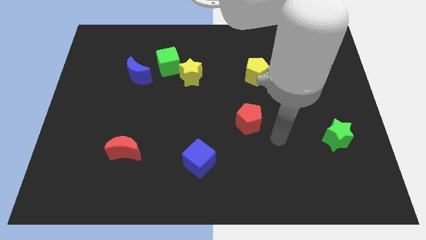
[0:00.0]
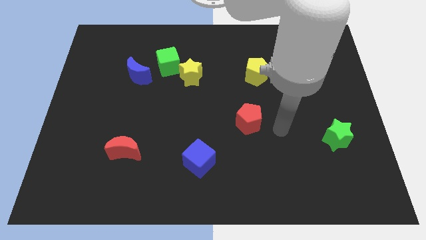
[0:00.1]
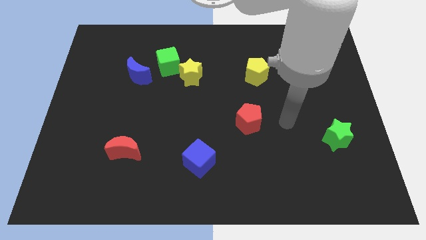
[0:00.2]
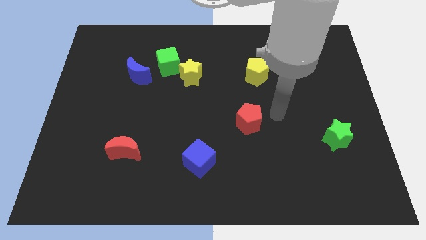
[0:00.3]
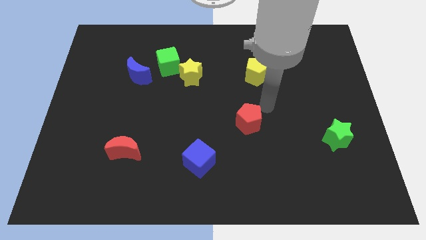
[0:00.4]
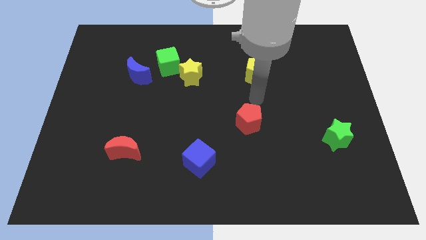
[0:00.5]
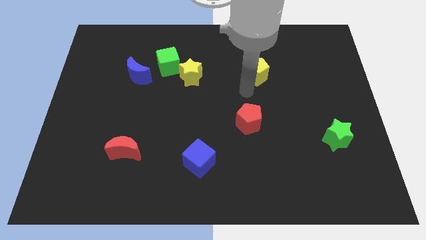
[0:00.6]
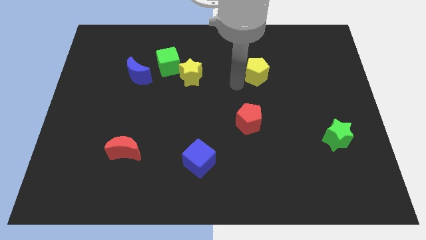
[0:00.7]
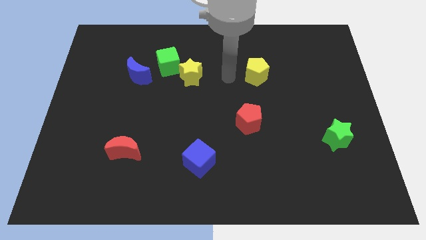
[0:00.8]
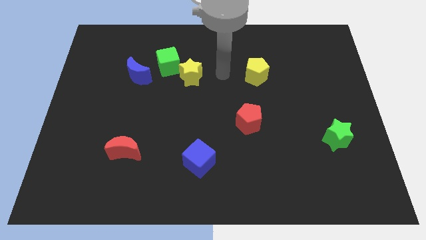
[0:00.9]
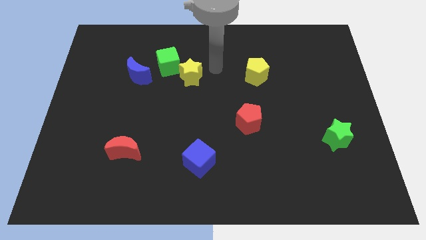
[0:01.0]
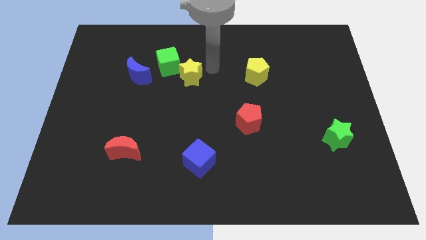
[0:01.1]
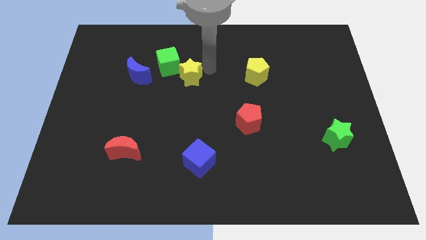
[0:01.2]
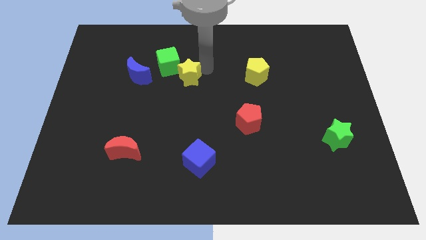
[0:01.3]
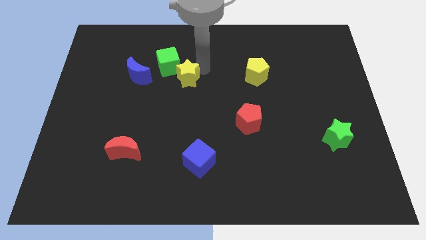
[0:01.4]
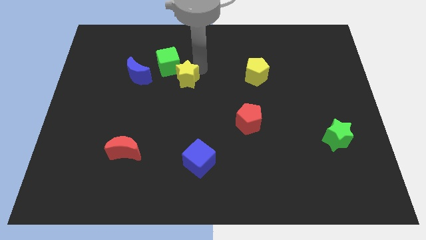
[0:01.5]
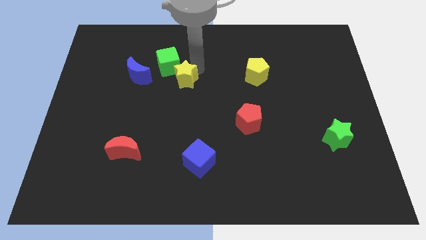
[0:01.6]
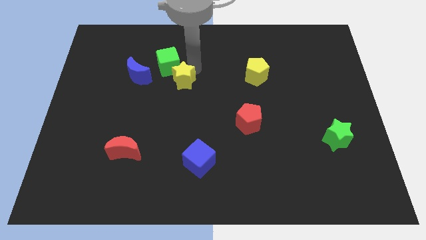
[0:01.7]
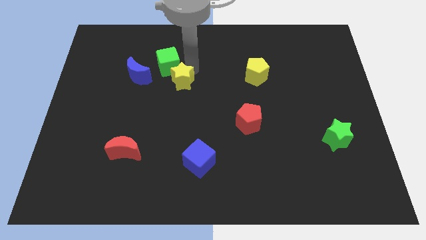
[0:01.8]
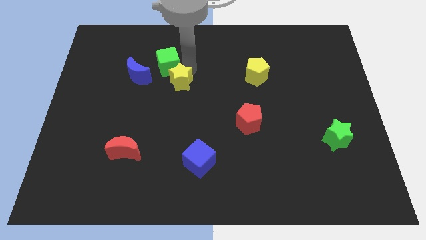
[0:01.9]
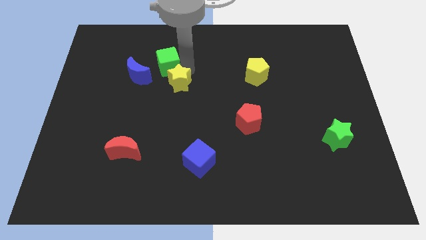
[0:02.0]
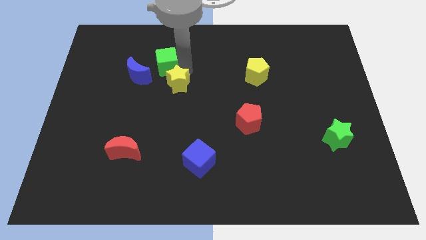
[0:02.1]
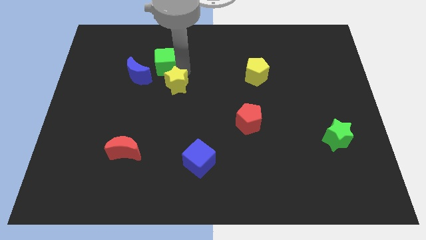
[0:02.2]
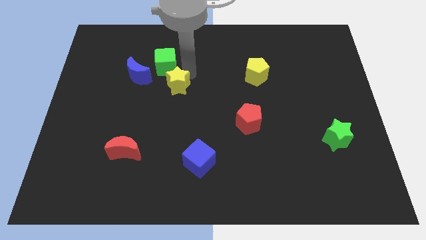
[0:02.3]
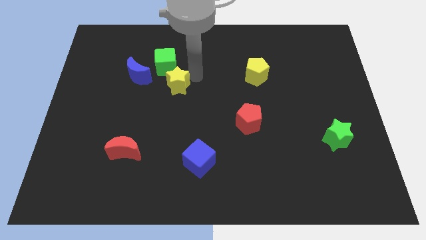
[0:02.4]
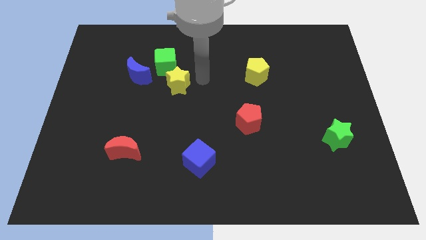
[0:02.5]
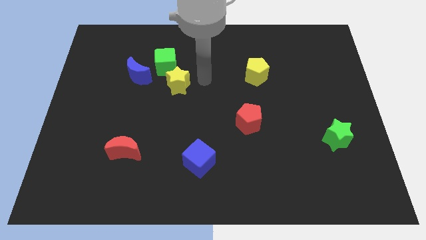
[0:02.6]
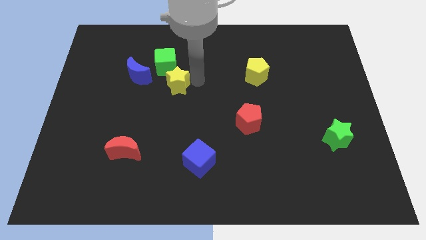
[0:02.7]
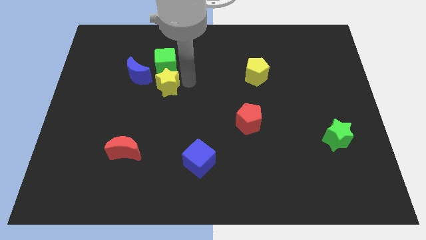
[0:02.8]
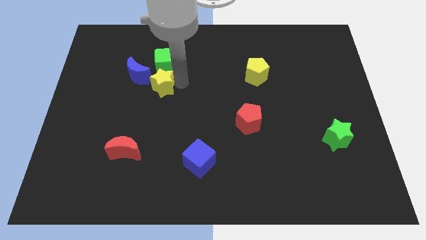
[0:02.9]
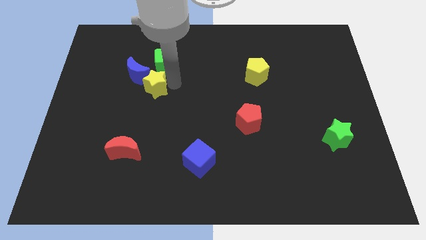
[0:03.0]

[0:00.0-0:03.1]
push the yellow star left somewhat

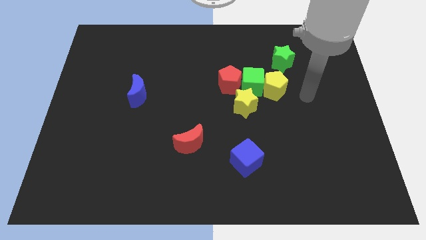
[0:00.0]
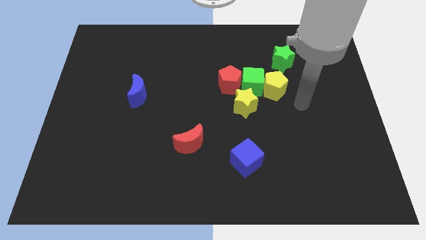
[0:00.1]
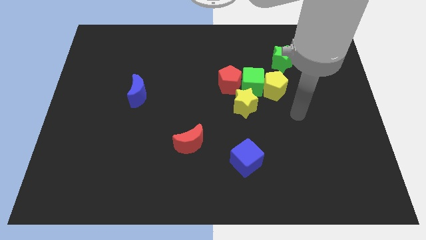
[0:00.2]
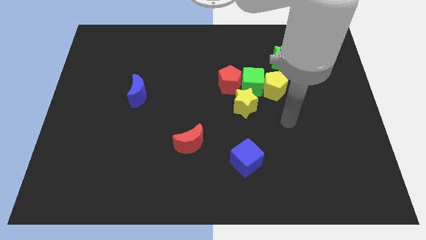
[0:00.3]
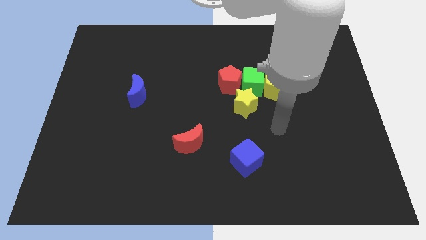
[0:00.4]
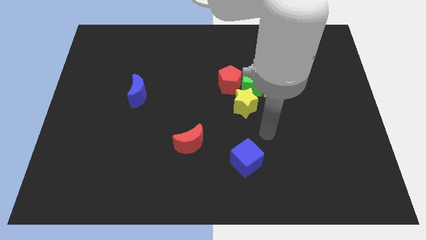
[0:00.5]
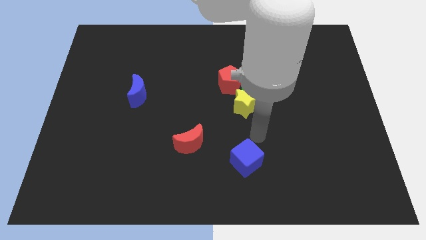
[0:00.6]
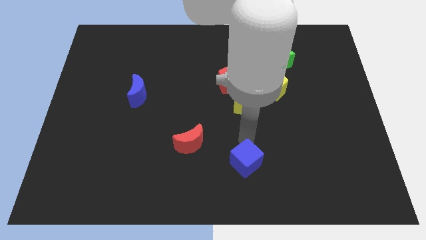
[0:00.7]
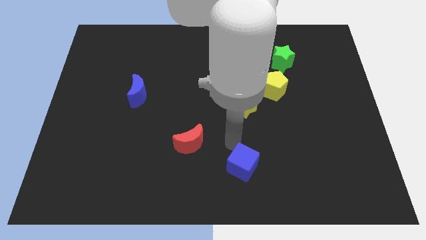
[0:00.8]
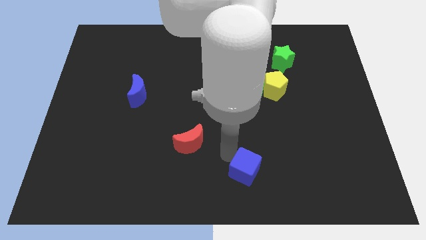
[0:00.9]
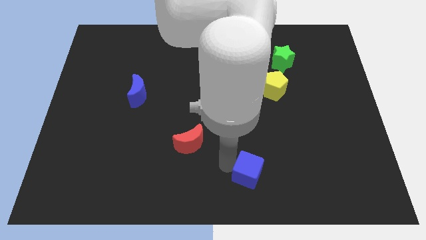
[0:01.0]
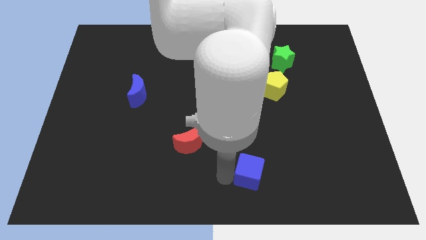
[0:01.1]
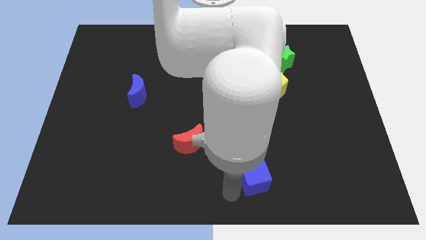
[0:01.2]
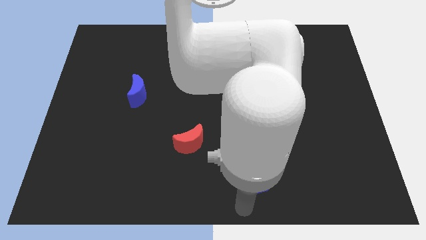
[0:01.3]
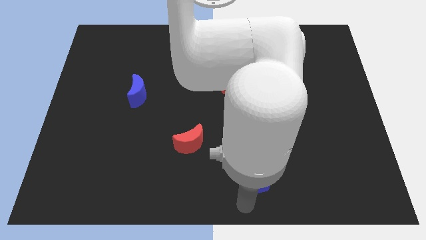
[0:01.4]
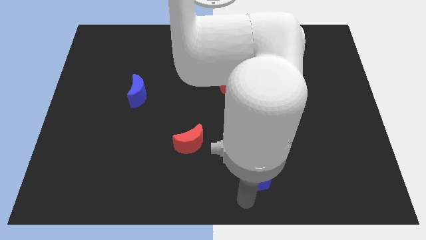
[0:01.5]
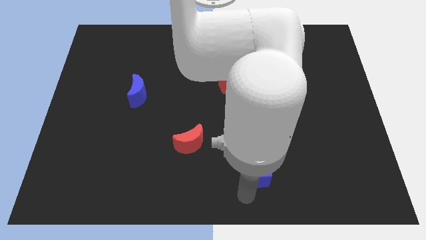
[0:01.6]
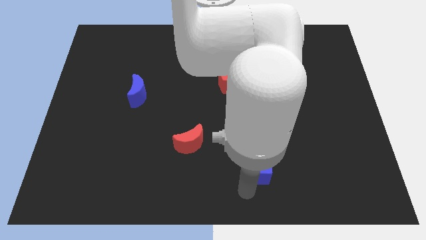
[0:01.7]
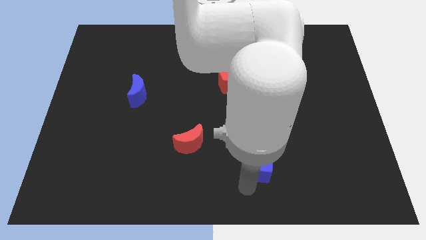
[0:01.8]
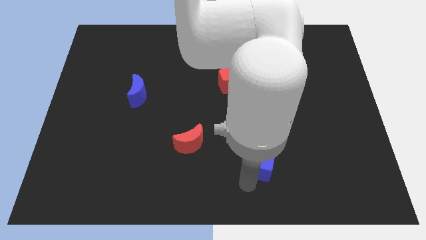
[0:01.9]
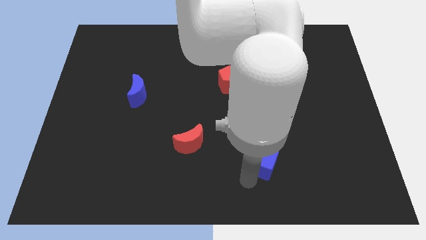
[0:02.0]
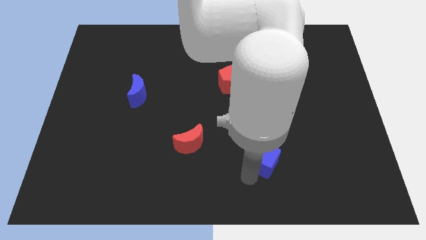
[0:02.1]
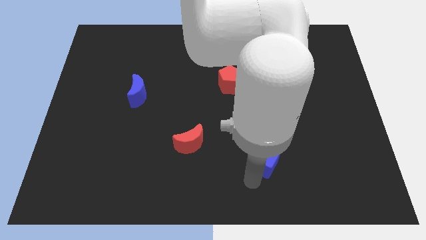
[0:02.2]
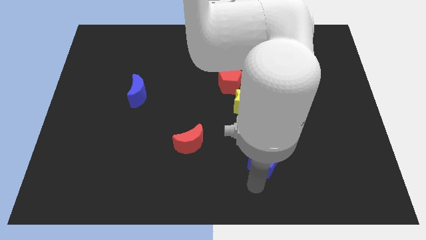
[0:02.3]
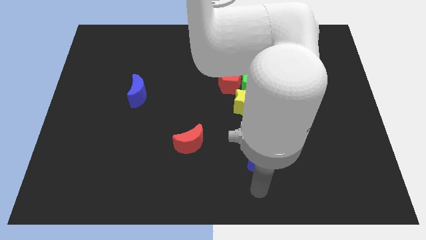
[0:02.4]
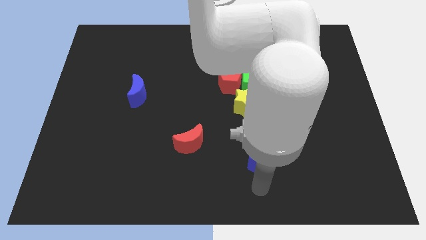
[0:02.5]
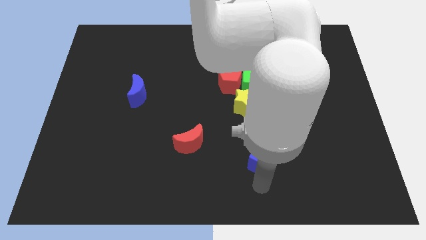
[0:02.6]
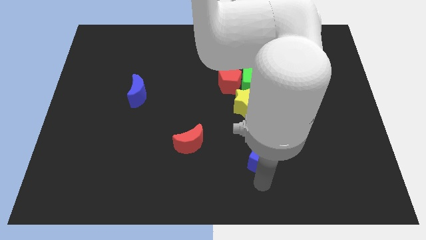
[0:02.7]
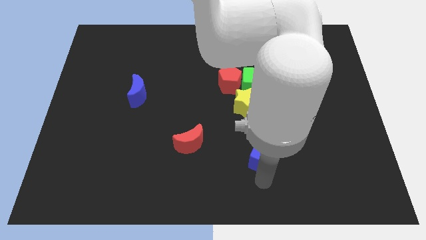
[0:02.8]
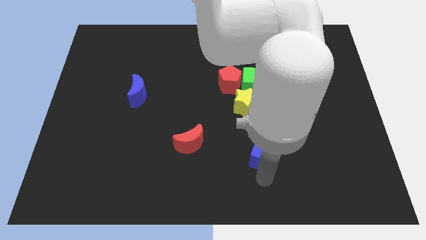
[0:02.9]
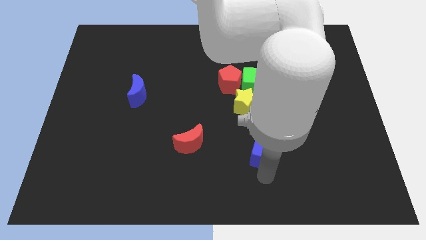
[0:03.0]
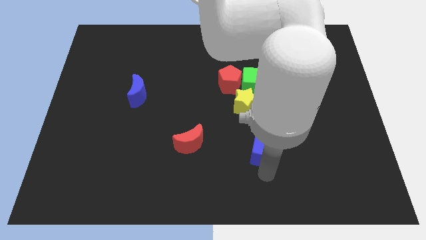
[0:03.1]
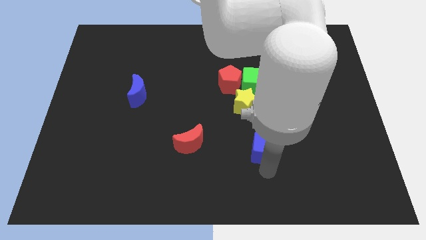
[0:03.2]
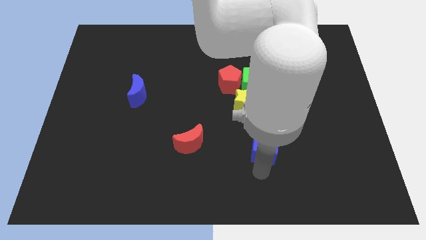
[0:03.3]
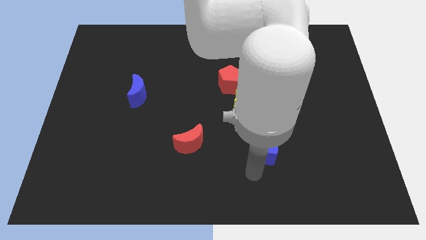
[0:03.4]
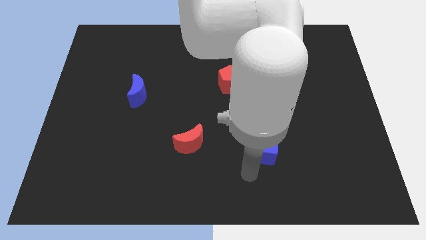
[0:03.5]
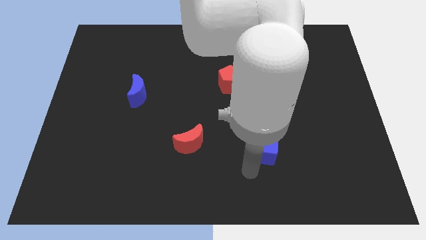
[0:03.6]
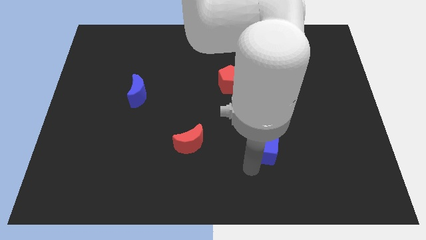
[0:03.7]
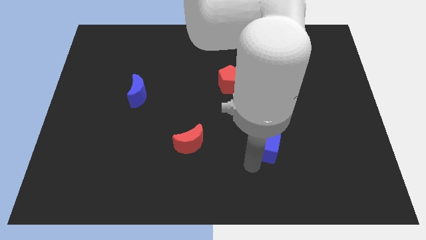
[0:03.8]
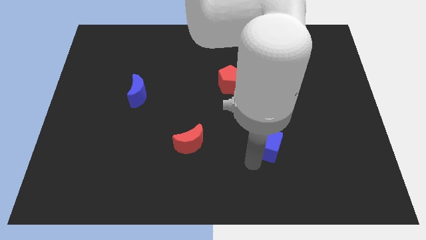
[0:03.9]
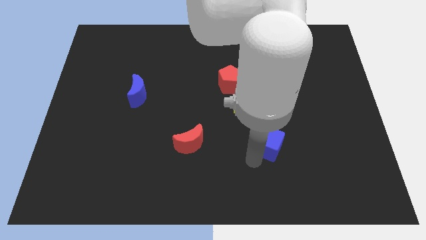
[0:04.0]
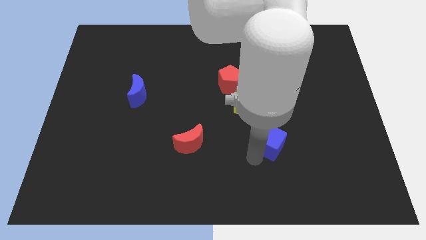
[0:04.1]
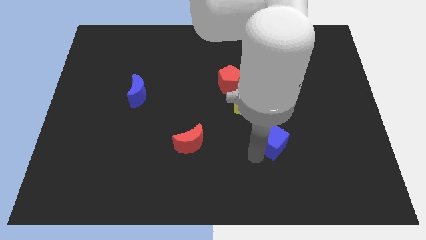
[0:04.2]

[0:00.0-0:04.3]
slightly move the blue cube up and right

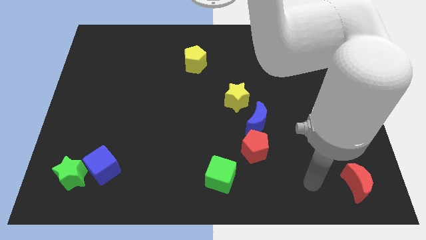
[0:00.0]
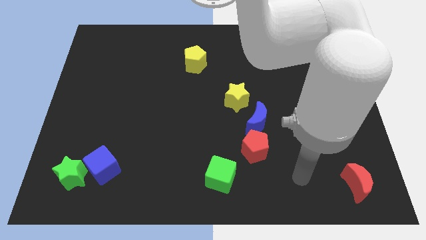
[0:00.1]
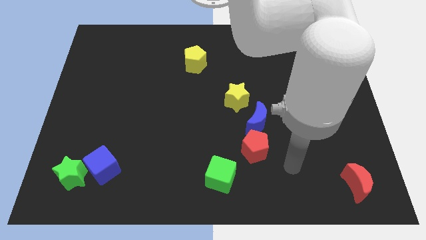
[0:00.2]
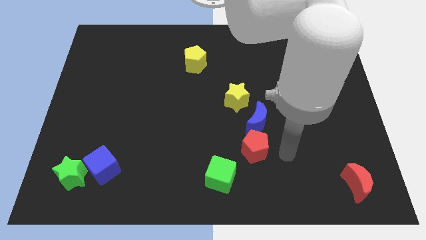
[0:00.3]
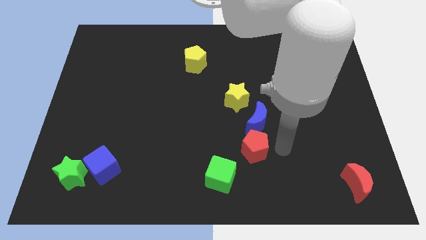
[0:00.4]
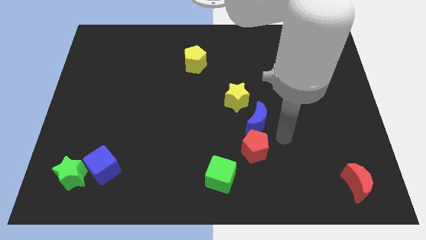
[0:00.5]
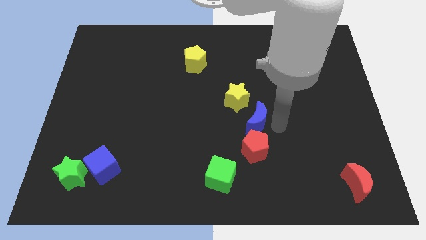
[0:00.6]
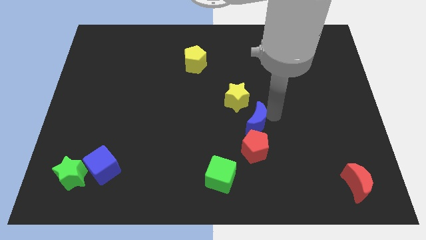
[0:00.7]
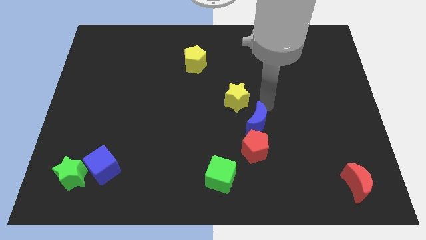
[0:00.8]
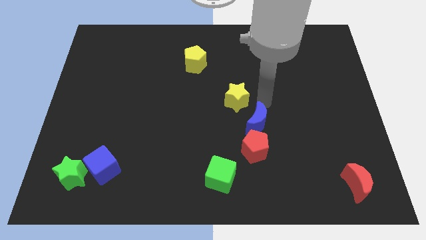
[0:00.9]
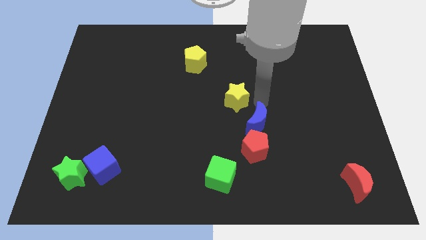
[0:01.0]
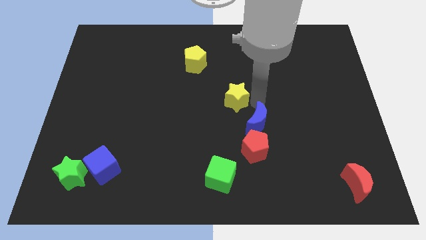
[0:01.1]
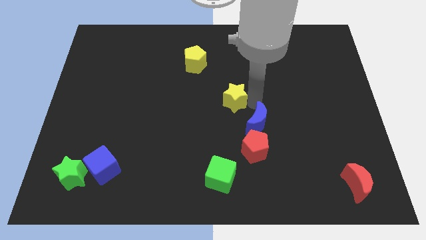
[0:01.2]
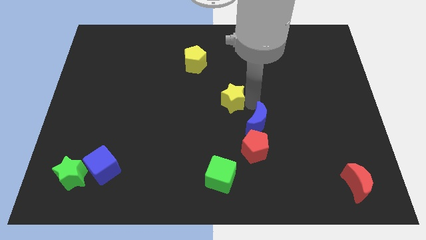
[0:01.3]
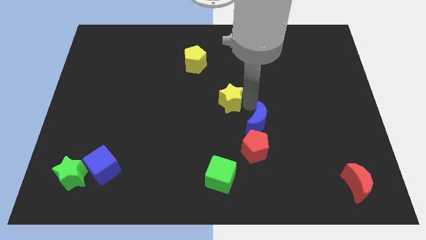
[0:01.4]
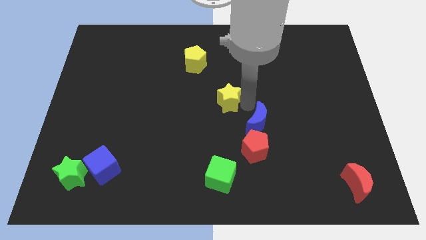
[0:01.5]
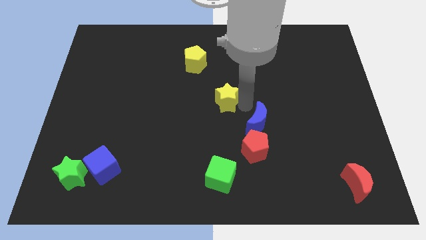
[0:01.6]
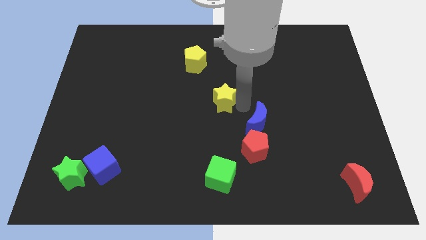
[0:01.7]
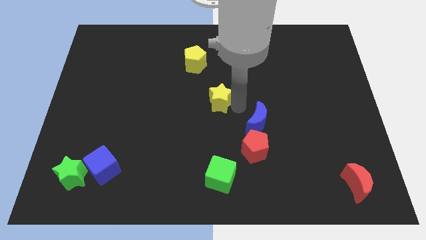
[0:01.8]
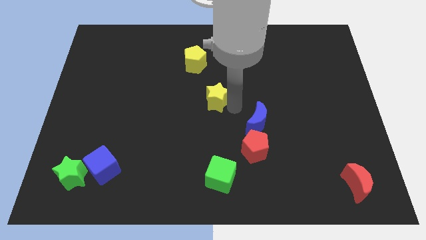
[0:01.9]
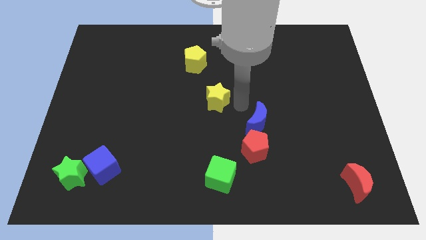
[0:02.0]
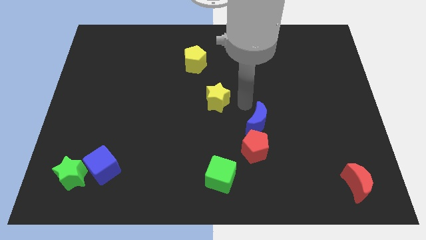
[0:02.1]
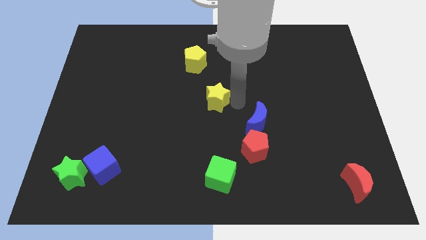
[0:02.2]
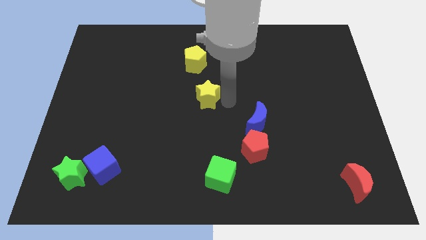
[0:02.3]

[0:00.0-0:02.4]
slightly slide the yellow star to the left
